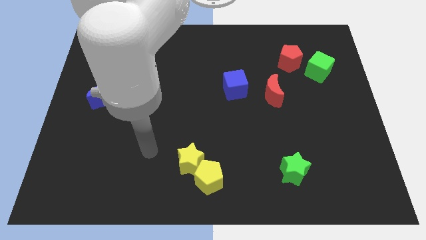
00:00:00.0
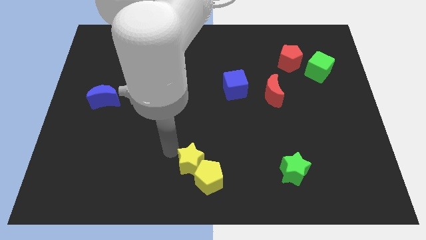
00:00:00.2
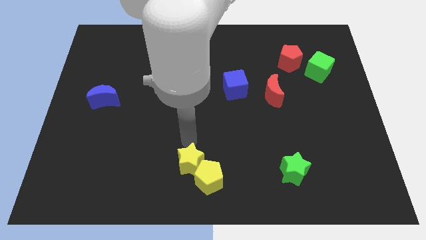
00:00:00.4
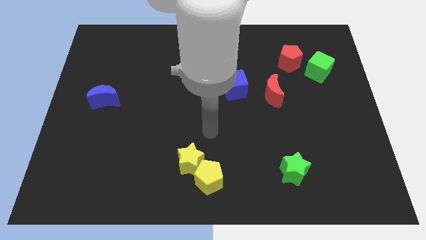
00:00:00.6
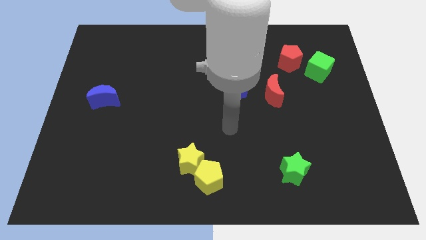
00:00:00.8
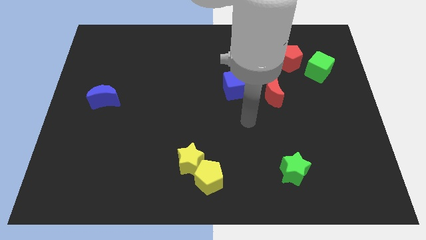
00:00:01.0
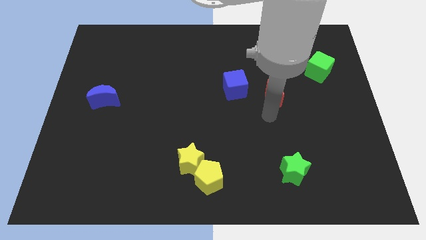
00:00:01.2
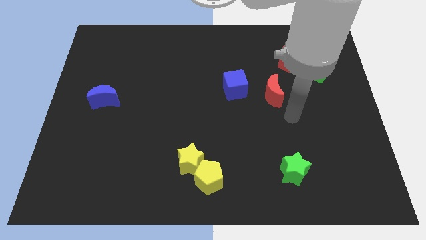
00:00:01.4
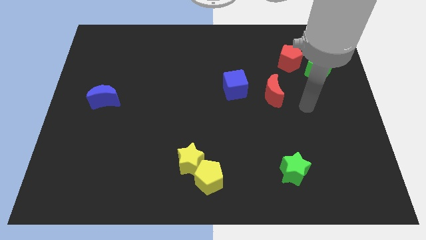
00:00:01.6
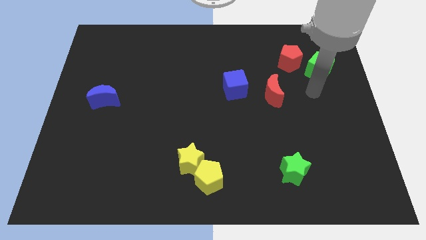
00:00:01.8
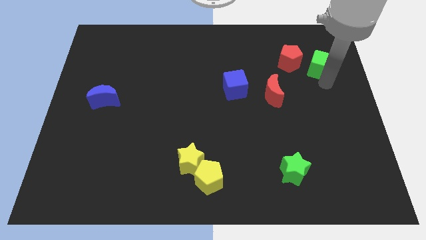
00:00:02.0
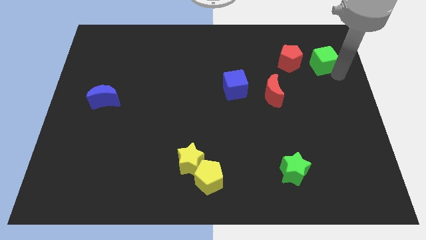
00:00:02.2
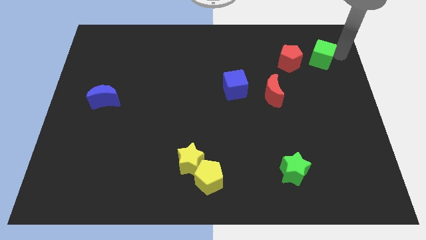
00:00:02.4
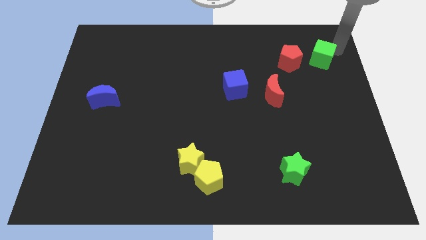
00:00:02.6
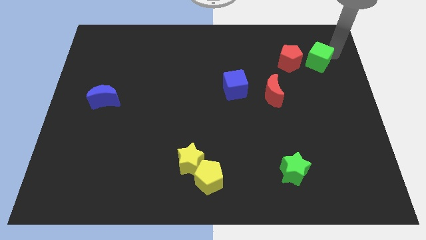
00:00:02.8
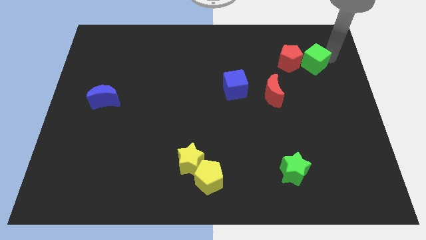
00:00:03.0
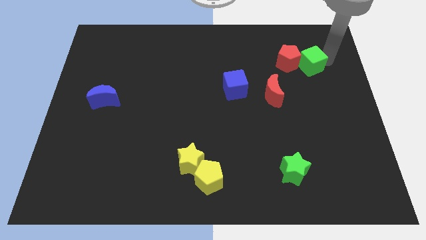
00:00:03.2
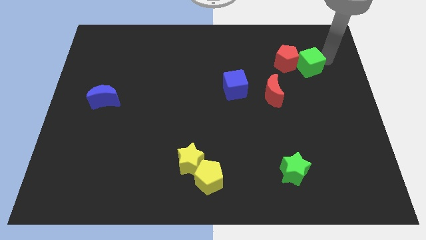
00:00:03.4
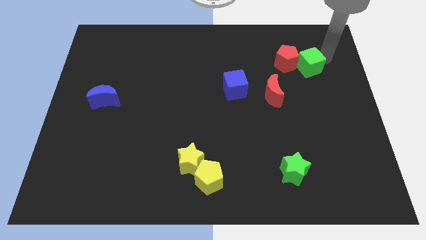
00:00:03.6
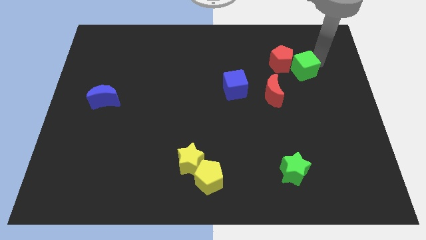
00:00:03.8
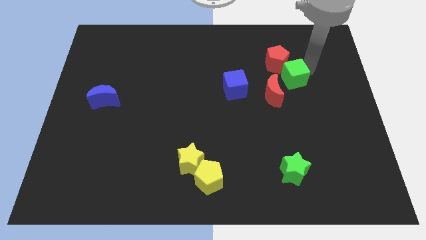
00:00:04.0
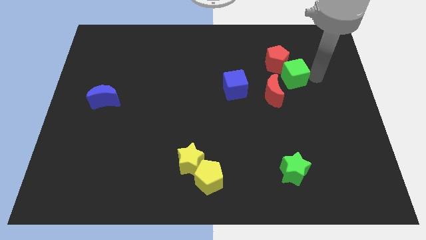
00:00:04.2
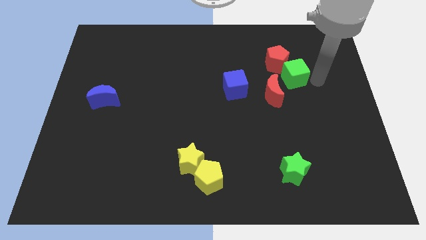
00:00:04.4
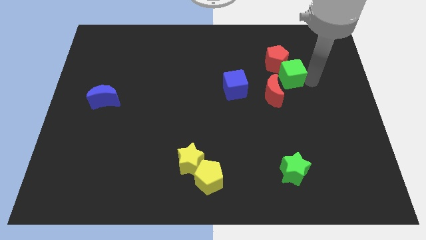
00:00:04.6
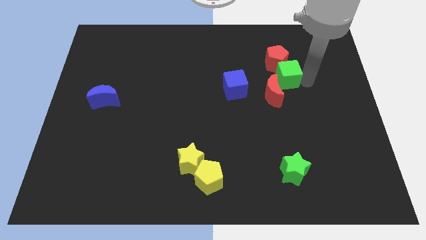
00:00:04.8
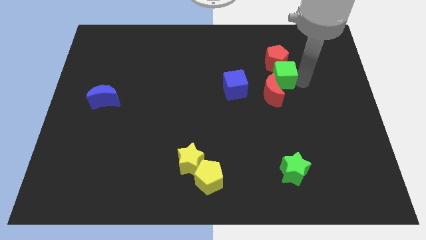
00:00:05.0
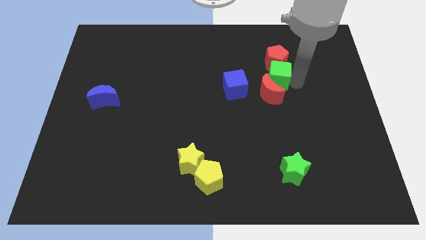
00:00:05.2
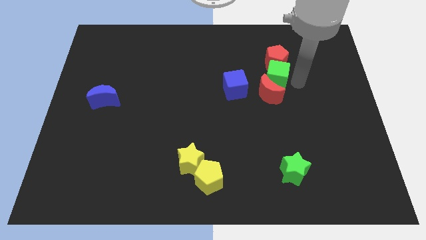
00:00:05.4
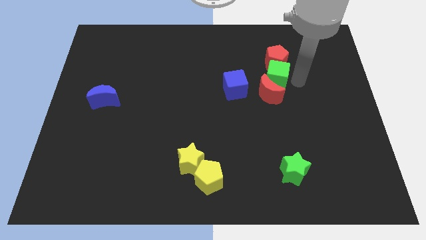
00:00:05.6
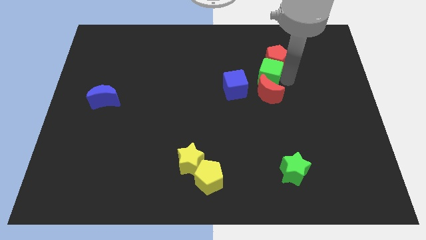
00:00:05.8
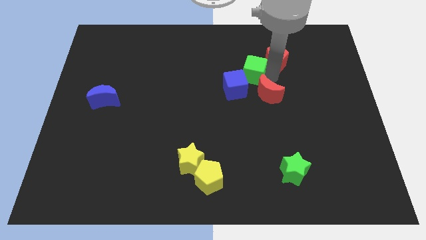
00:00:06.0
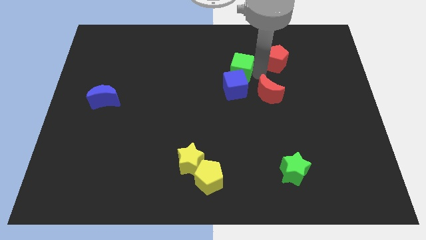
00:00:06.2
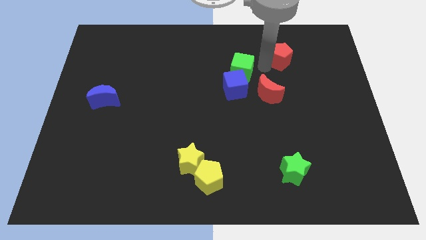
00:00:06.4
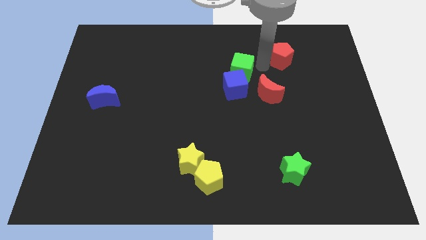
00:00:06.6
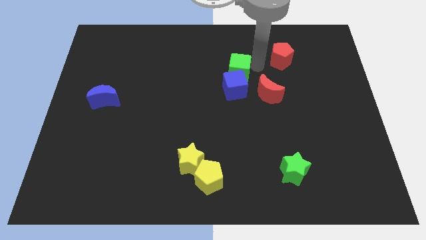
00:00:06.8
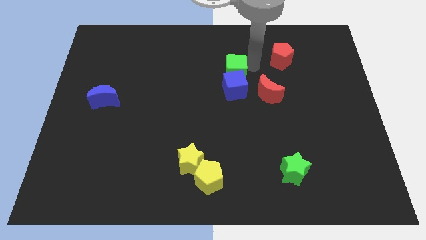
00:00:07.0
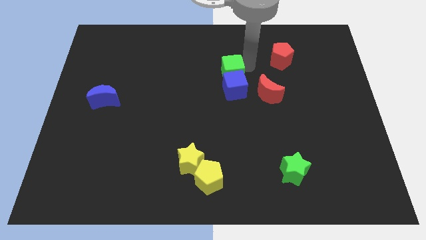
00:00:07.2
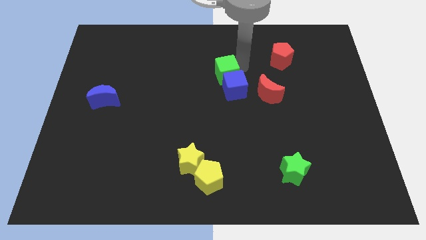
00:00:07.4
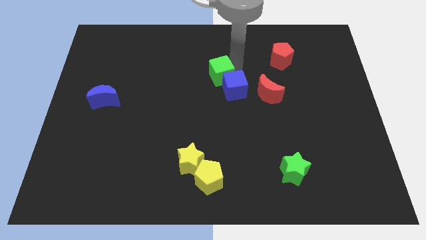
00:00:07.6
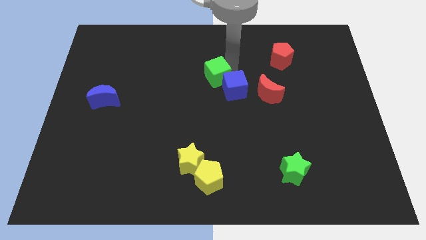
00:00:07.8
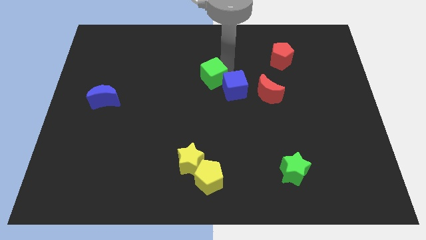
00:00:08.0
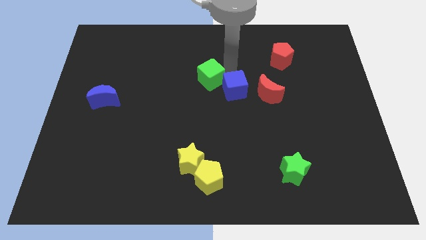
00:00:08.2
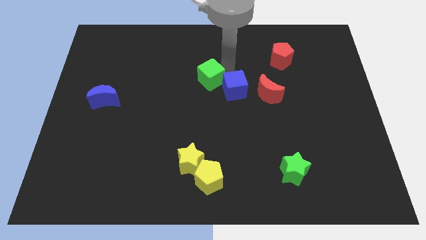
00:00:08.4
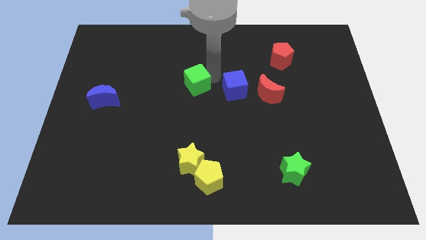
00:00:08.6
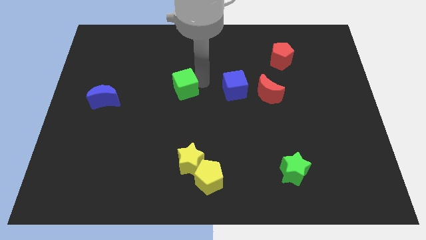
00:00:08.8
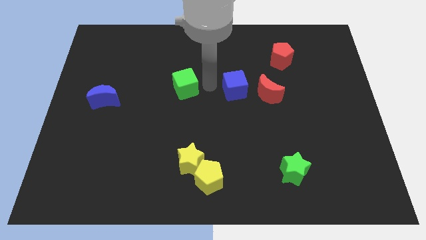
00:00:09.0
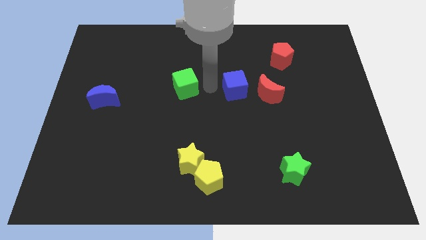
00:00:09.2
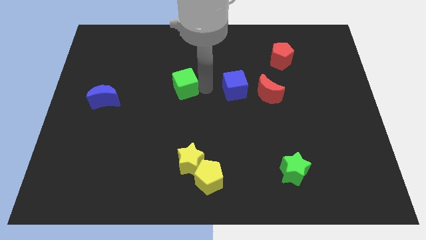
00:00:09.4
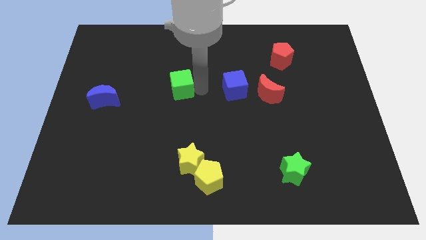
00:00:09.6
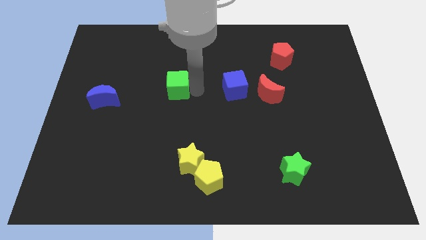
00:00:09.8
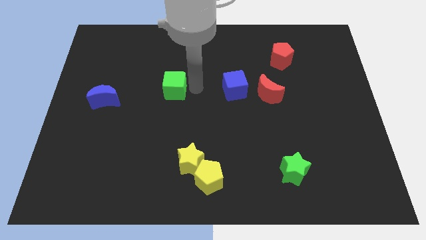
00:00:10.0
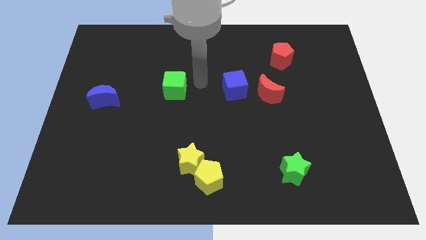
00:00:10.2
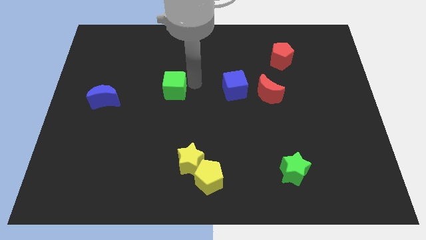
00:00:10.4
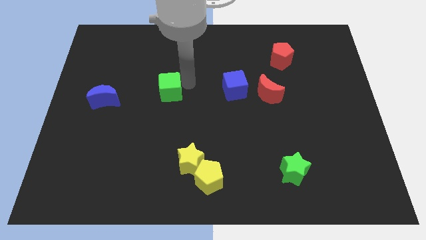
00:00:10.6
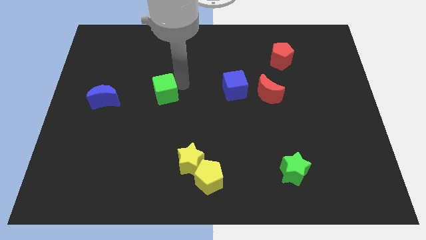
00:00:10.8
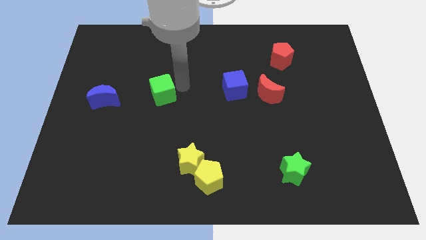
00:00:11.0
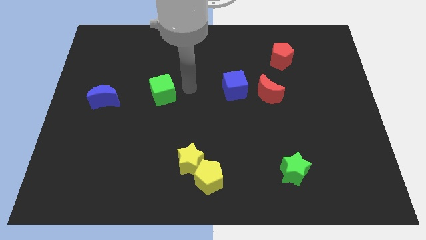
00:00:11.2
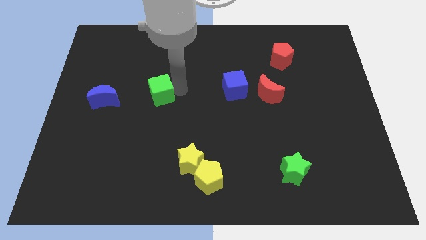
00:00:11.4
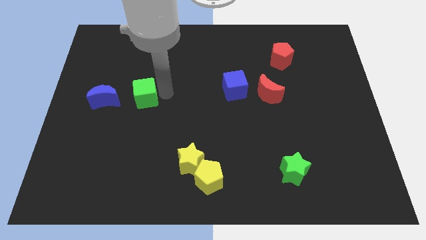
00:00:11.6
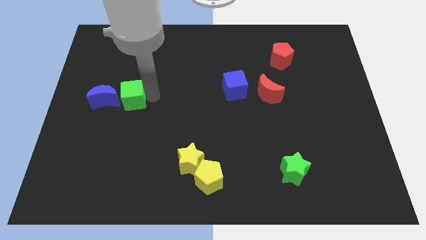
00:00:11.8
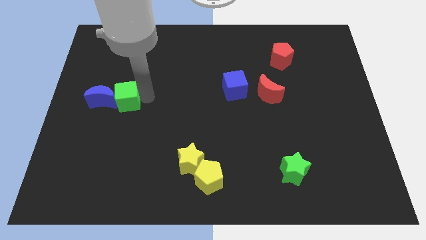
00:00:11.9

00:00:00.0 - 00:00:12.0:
move the green cube to the blue moon
